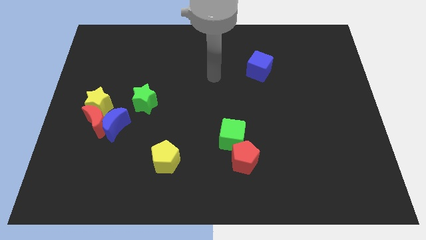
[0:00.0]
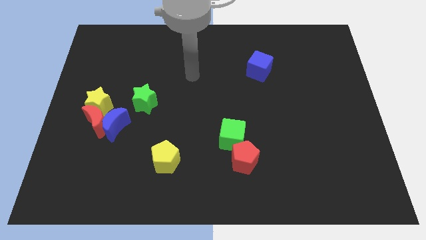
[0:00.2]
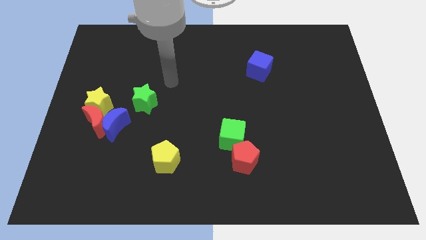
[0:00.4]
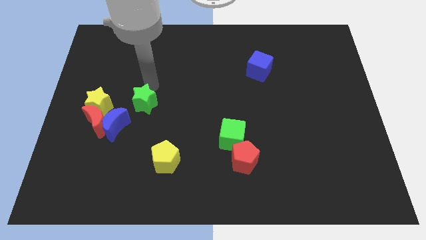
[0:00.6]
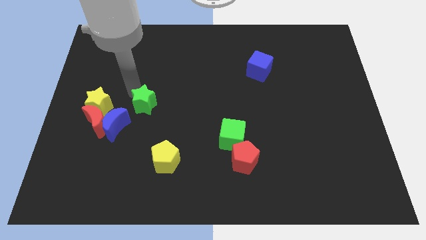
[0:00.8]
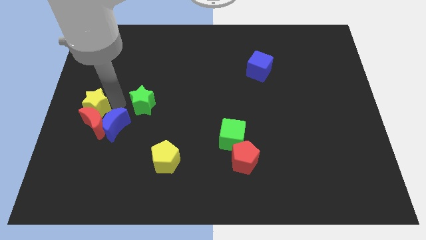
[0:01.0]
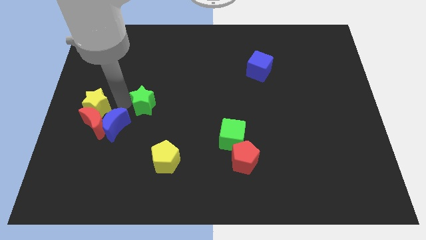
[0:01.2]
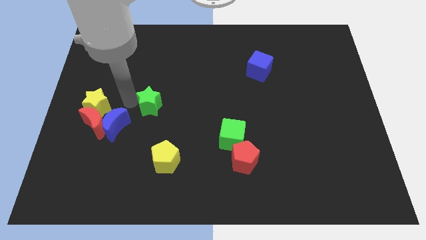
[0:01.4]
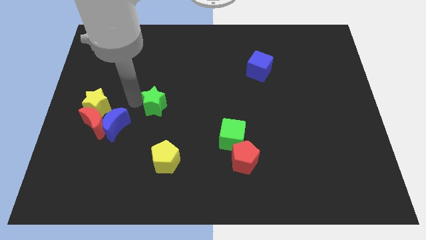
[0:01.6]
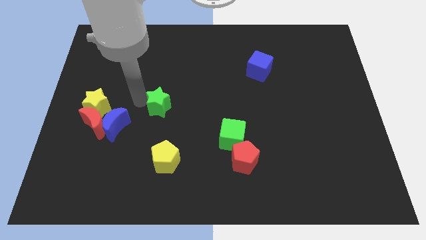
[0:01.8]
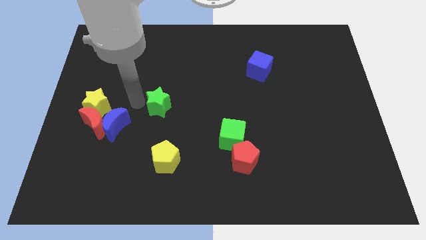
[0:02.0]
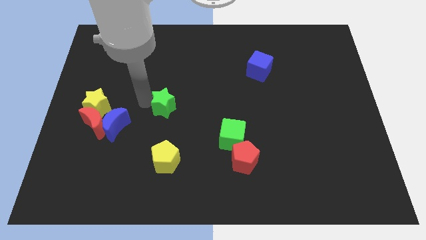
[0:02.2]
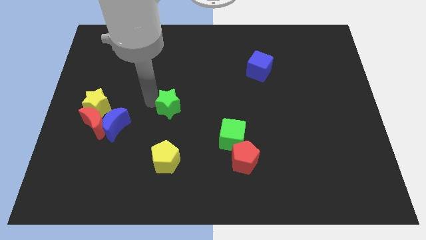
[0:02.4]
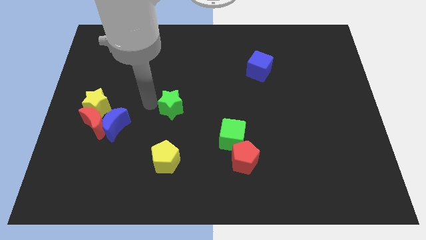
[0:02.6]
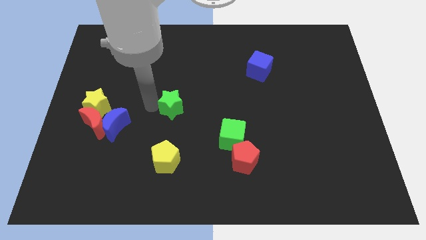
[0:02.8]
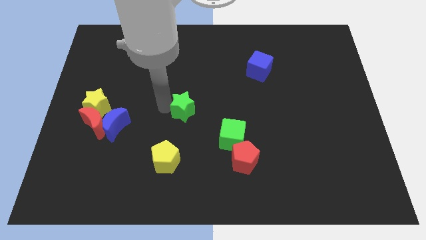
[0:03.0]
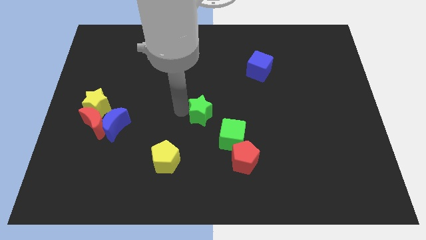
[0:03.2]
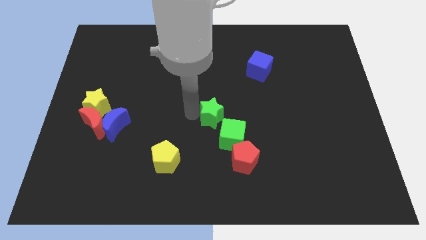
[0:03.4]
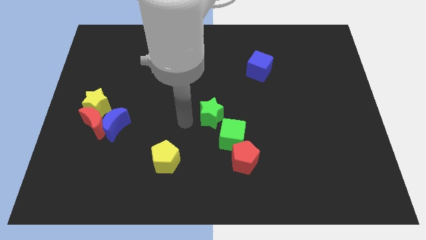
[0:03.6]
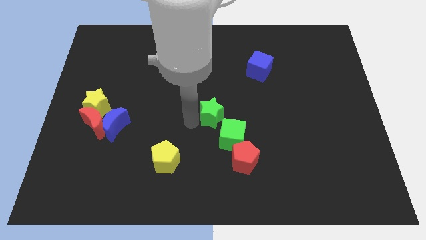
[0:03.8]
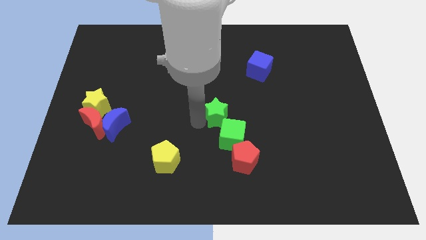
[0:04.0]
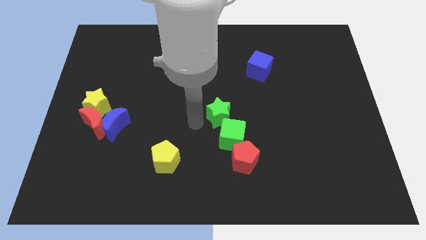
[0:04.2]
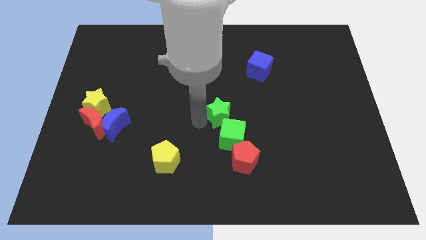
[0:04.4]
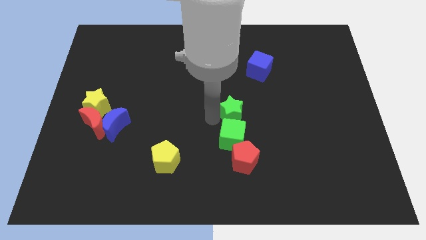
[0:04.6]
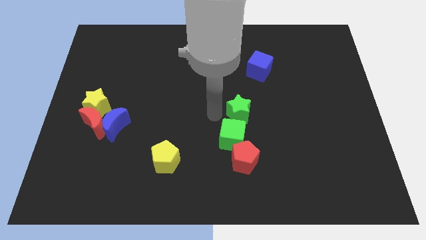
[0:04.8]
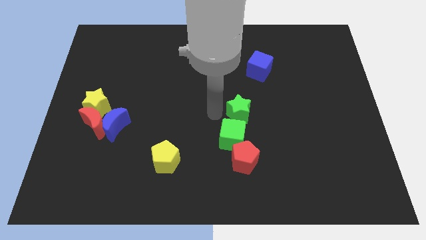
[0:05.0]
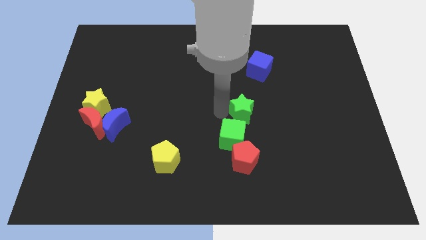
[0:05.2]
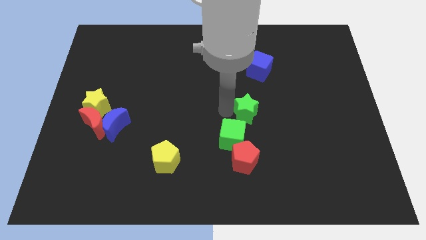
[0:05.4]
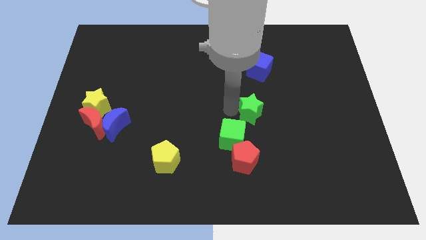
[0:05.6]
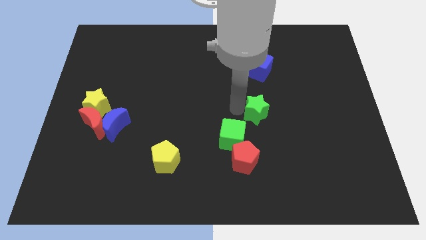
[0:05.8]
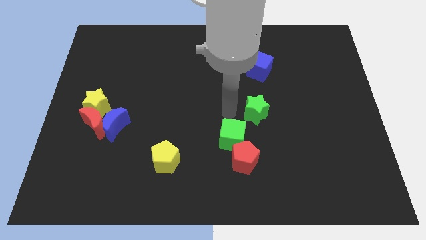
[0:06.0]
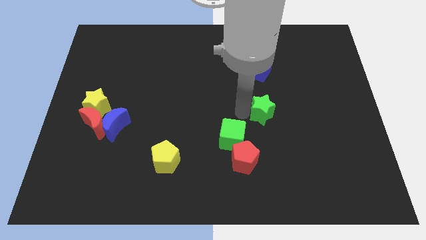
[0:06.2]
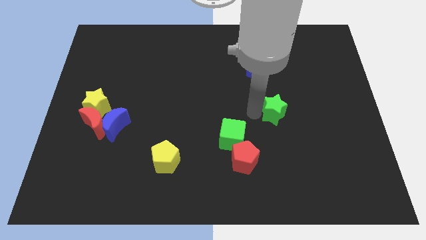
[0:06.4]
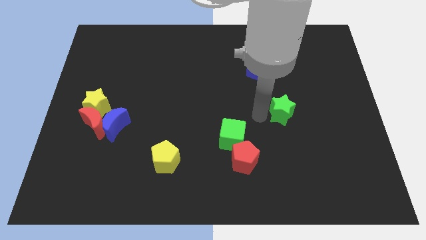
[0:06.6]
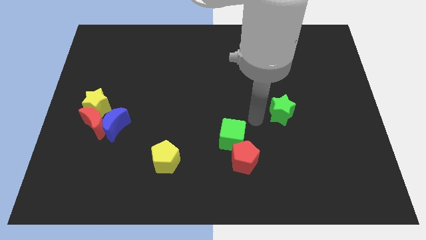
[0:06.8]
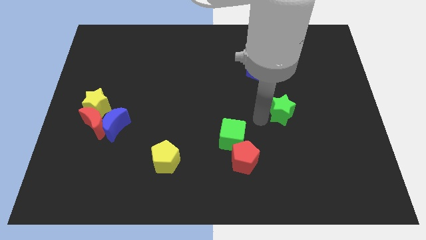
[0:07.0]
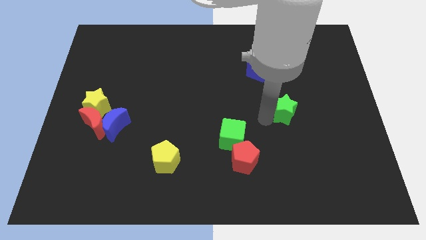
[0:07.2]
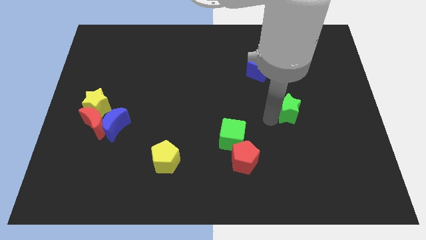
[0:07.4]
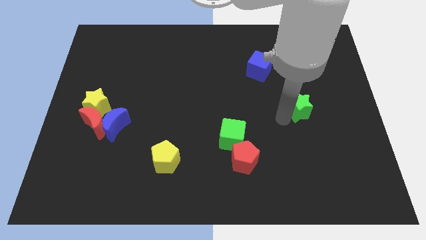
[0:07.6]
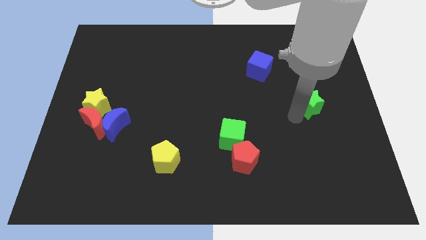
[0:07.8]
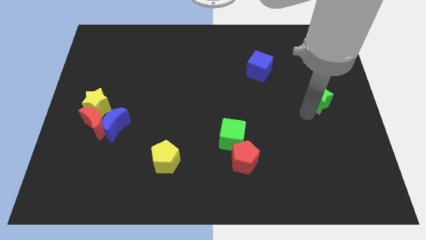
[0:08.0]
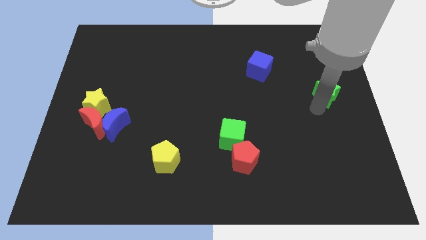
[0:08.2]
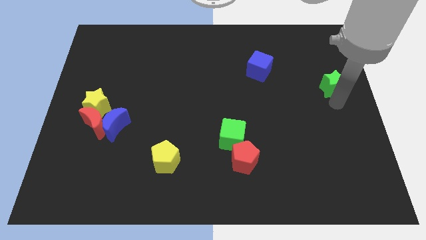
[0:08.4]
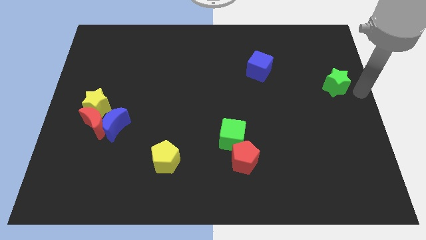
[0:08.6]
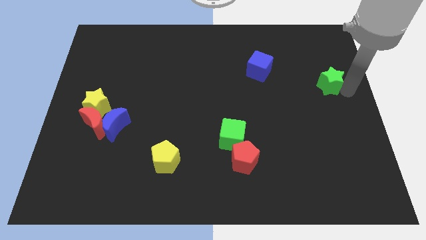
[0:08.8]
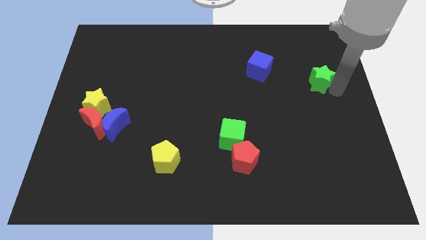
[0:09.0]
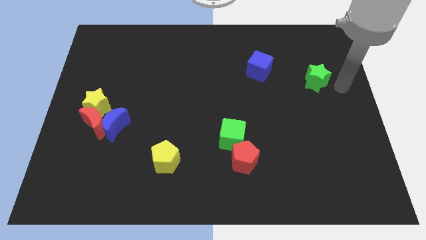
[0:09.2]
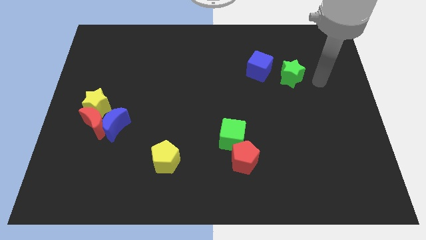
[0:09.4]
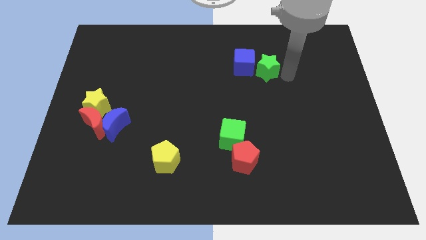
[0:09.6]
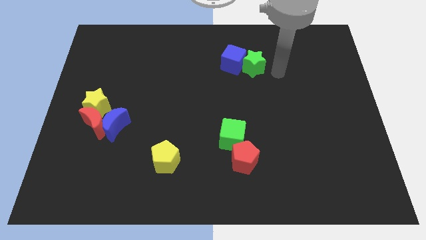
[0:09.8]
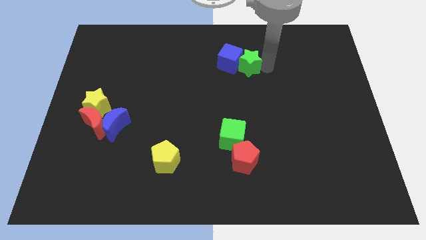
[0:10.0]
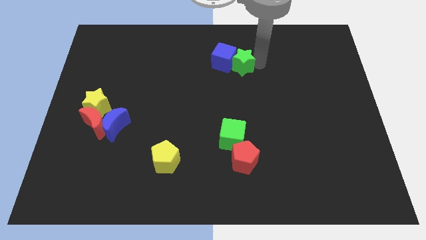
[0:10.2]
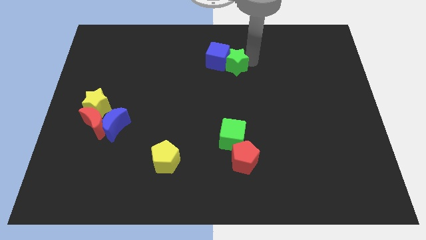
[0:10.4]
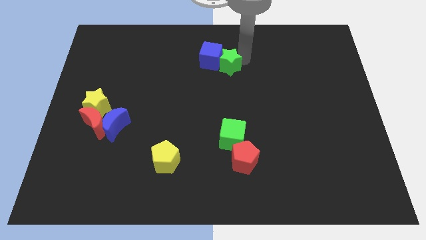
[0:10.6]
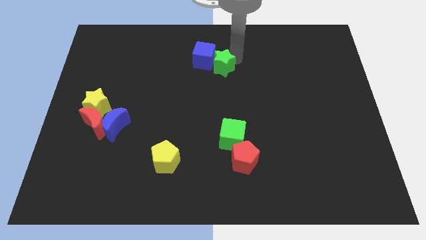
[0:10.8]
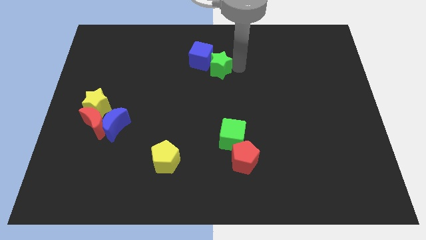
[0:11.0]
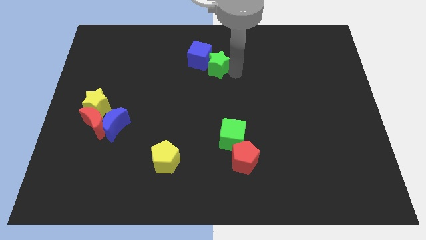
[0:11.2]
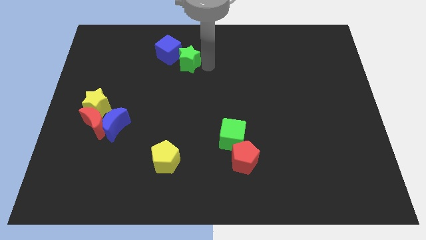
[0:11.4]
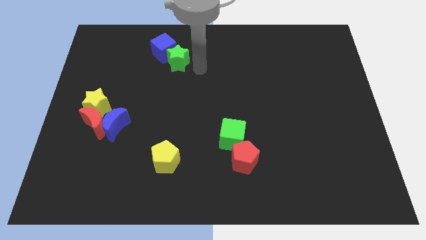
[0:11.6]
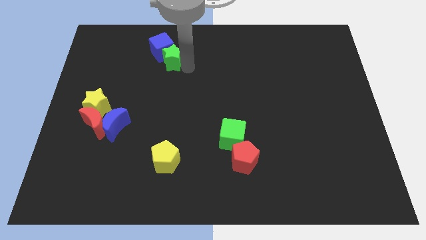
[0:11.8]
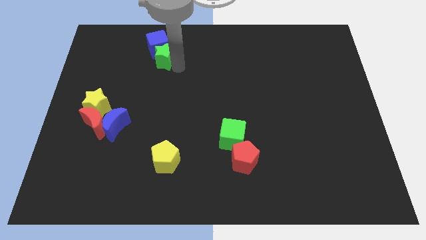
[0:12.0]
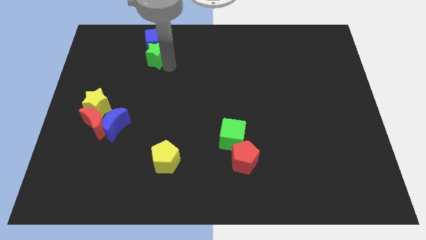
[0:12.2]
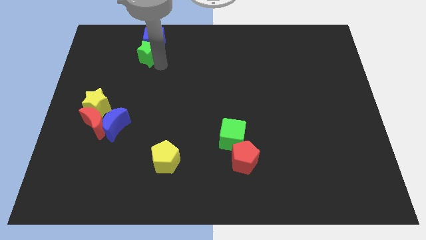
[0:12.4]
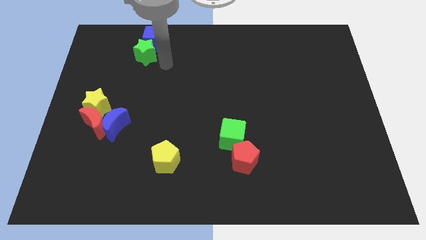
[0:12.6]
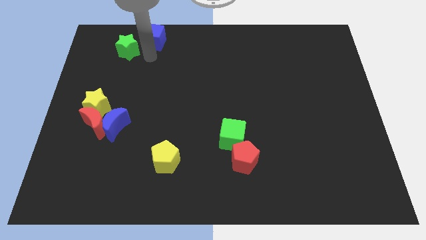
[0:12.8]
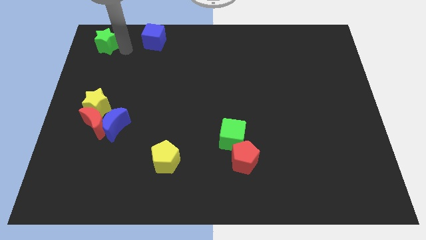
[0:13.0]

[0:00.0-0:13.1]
put the green star to the top left corner
